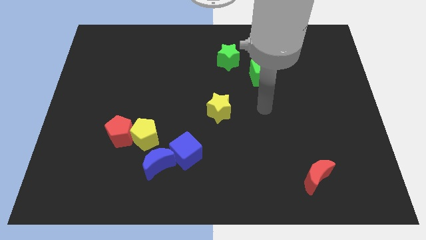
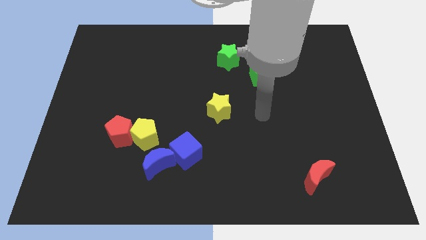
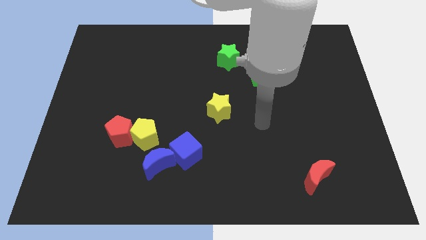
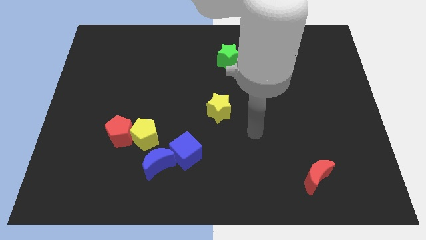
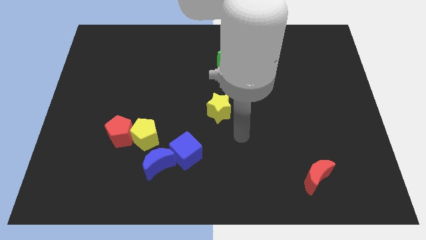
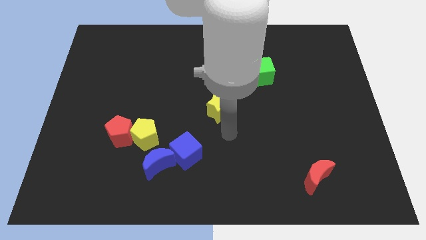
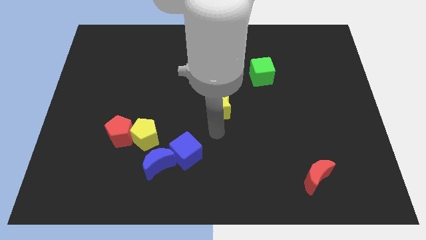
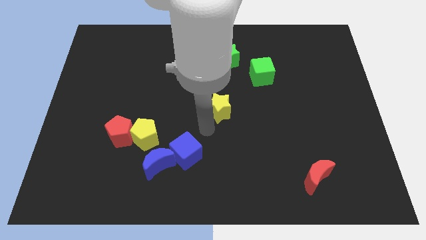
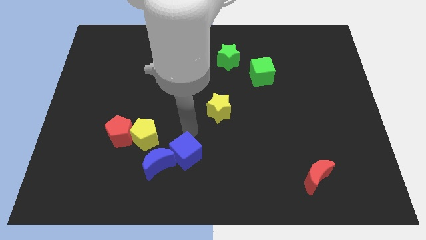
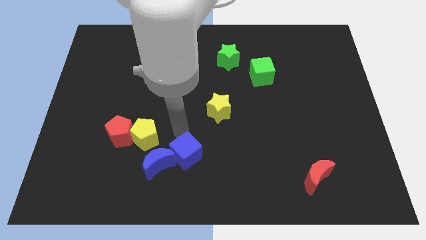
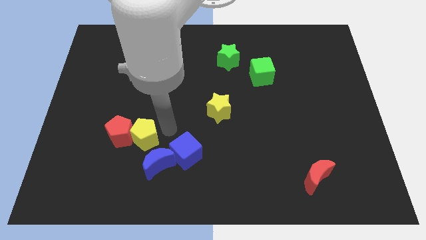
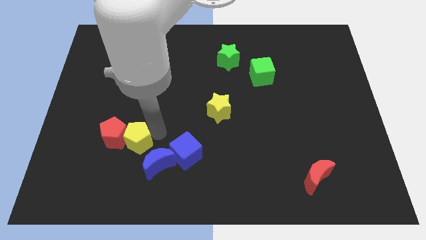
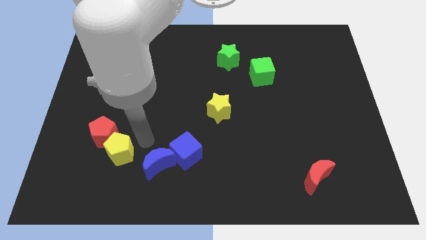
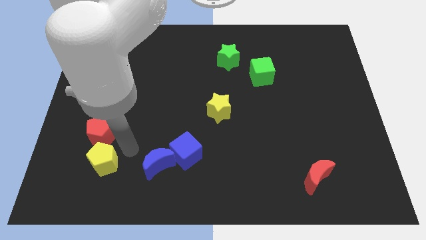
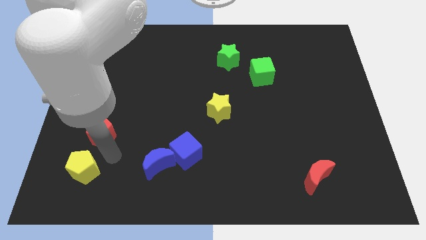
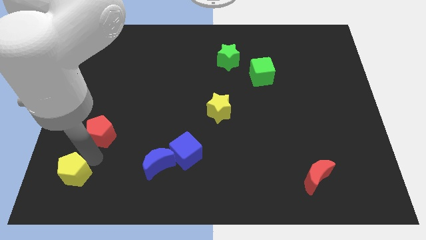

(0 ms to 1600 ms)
move the red pentagon away from the yellow pentagon

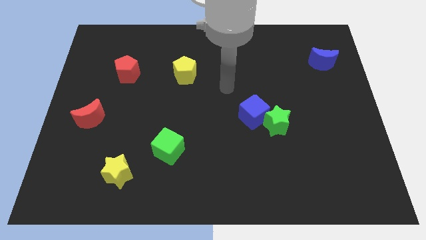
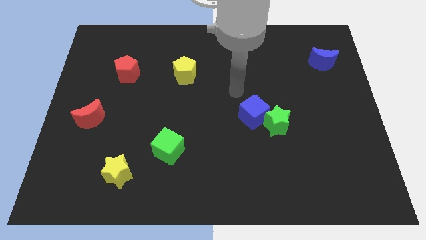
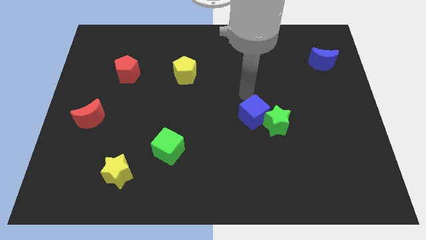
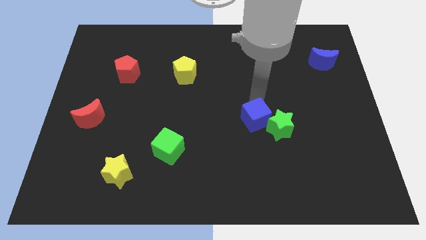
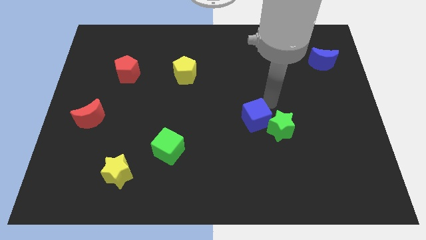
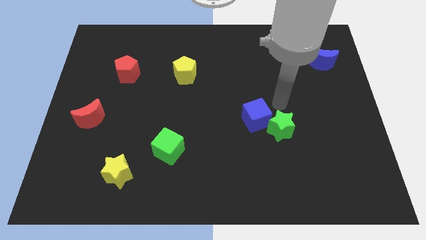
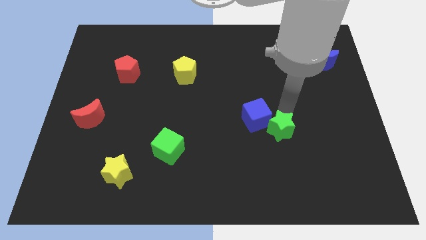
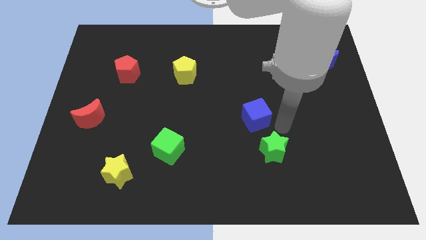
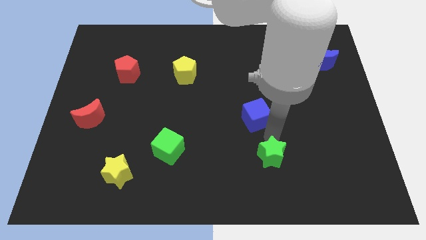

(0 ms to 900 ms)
pull the blue cube apart from the green star

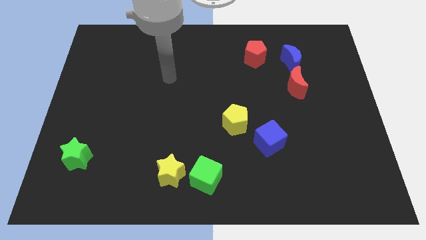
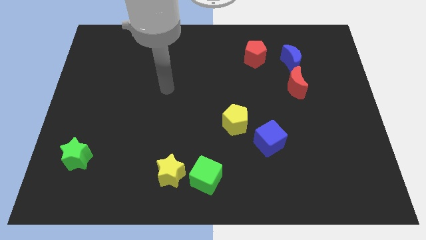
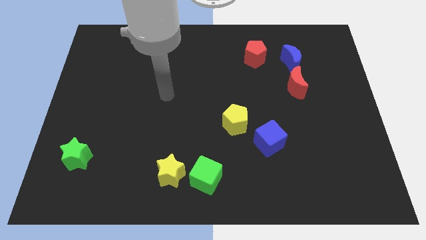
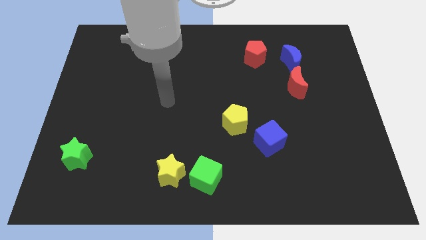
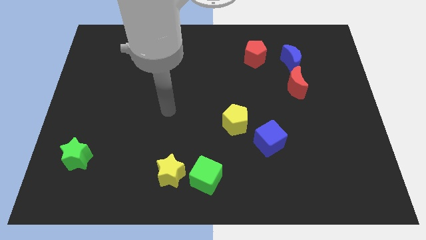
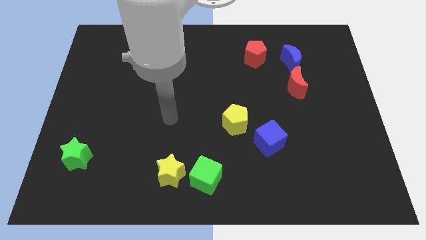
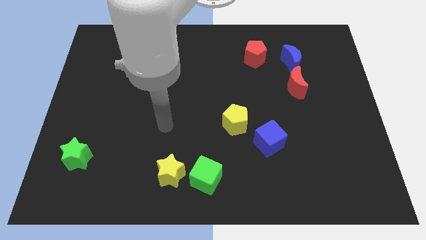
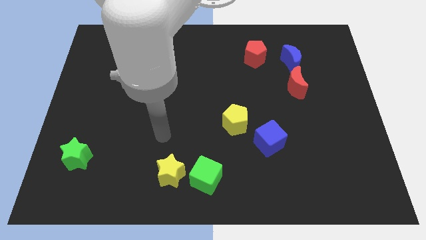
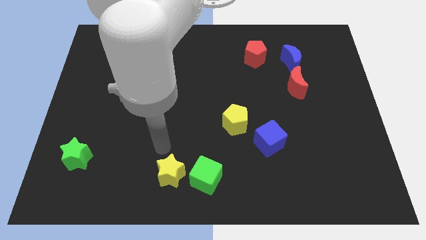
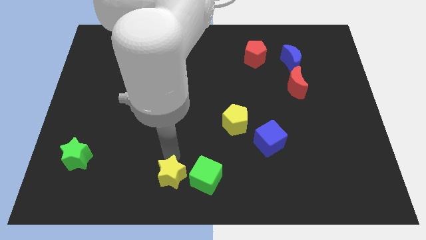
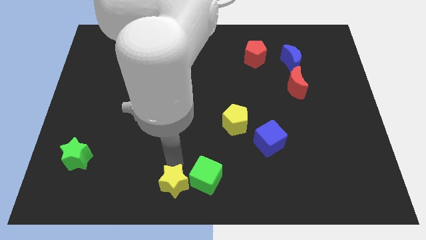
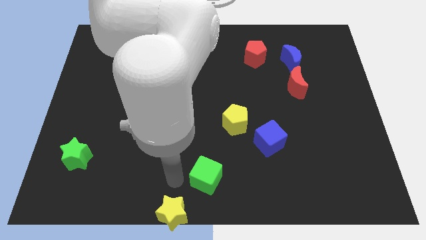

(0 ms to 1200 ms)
move the green cube away from the yellow star

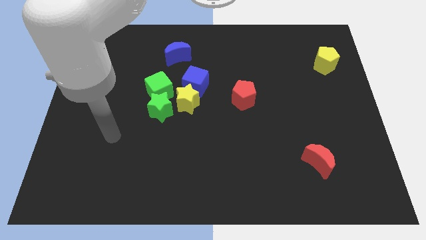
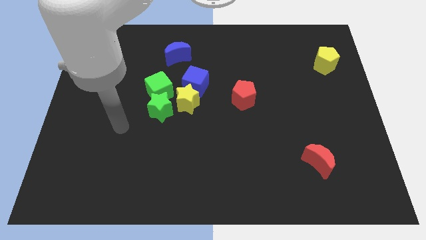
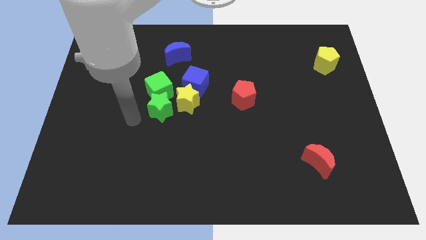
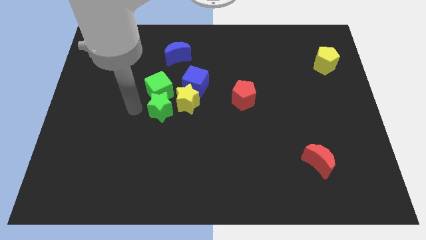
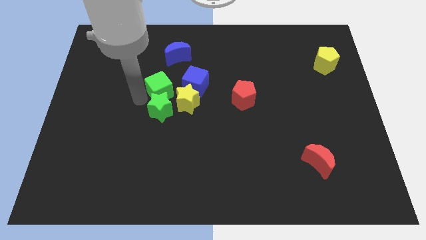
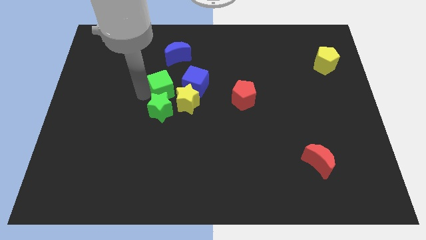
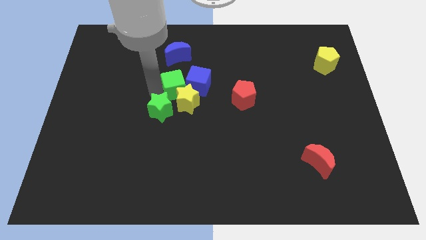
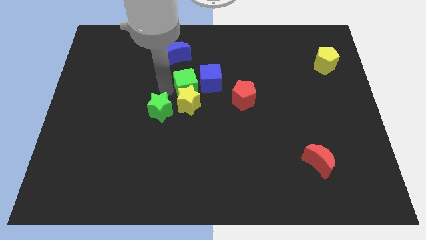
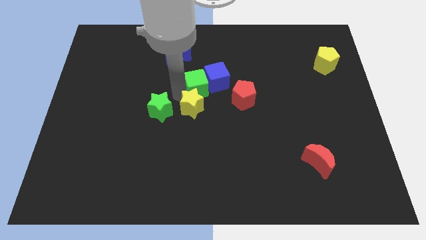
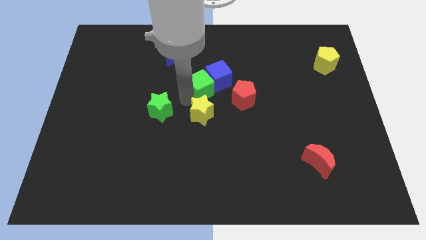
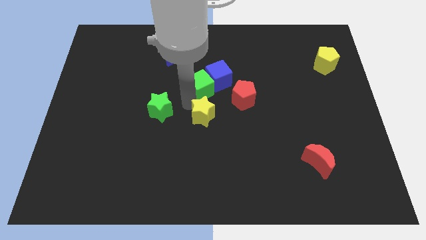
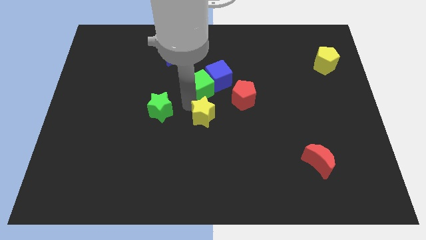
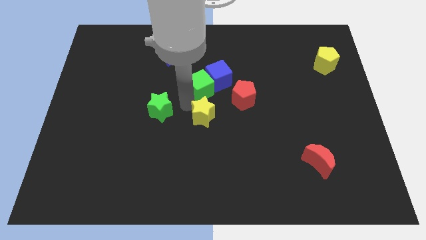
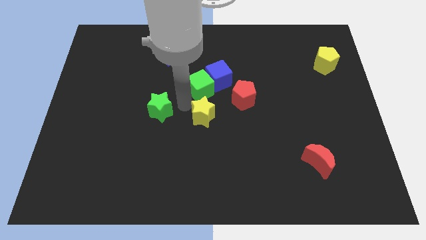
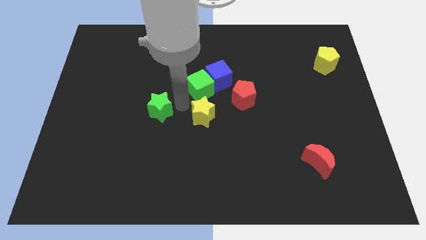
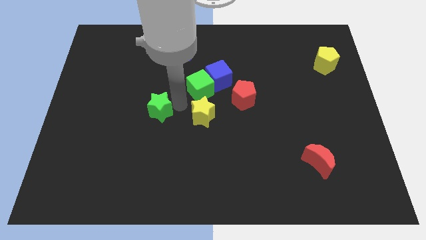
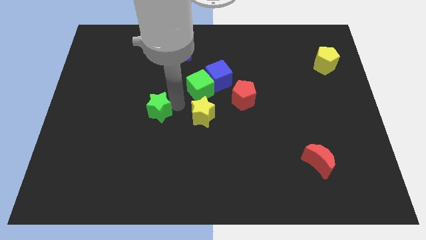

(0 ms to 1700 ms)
pull the green star apart from the green cube and yellow star

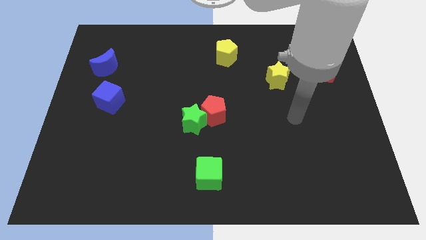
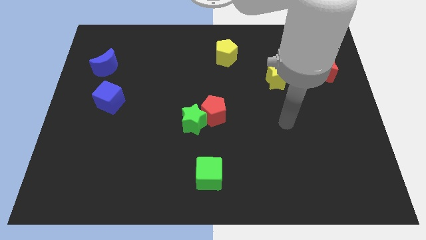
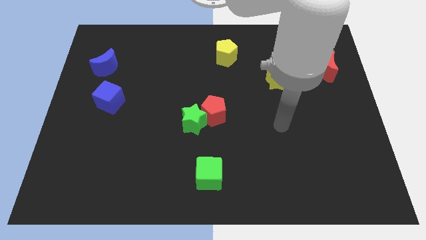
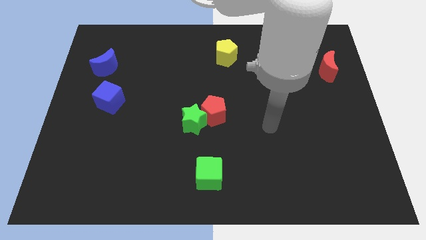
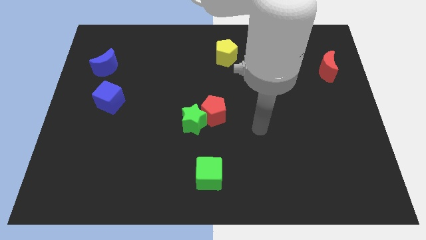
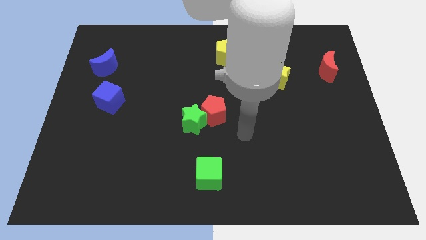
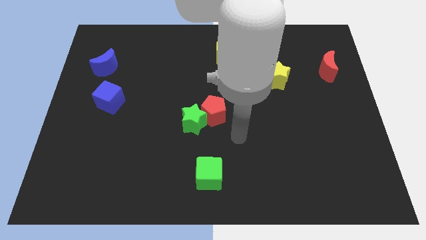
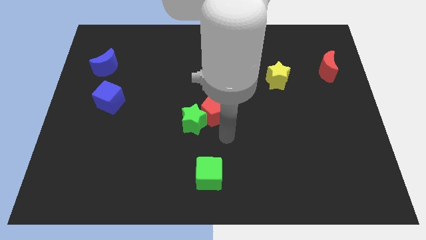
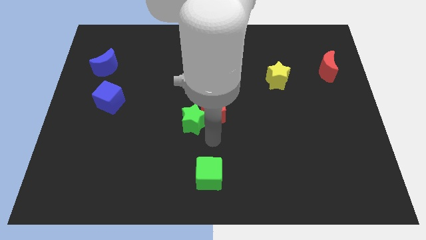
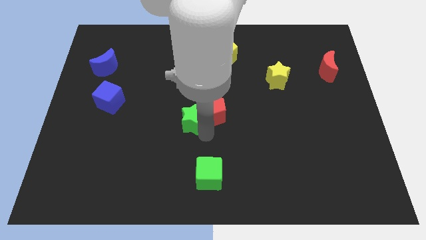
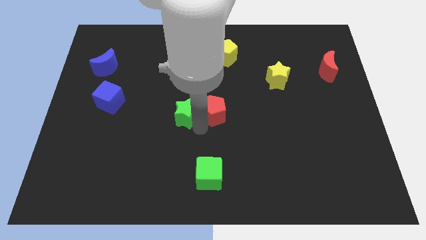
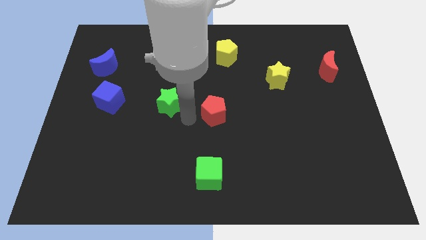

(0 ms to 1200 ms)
move the red pentagon away from the green star

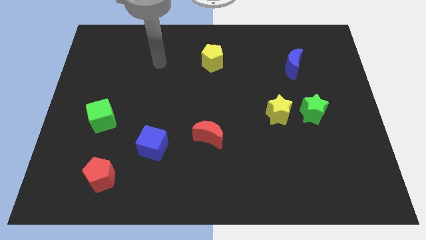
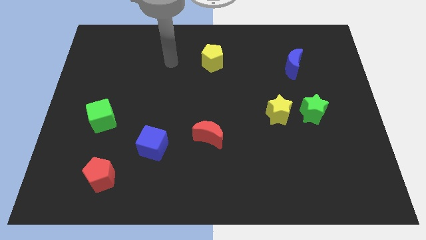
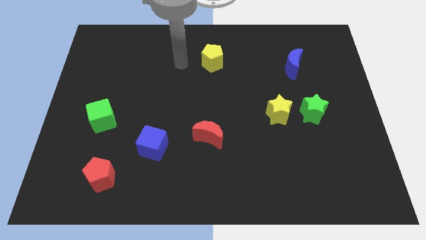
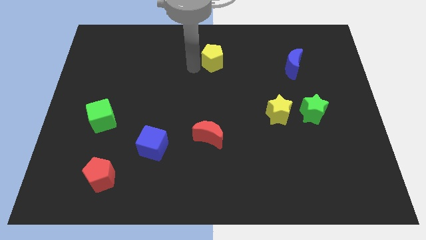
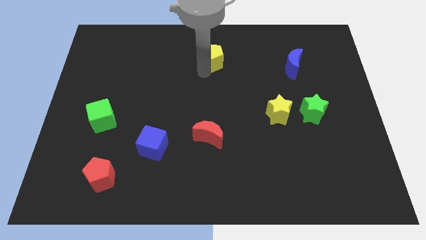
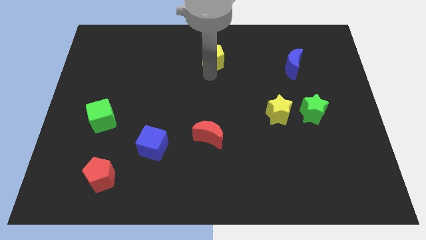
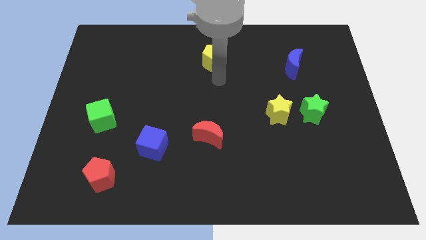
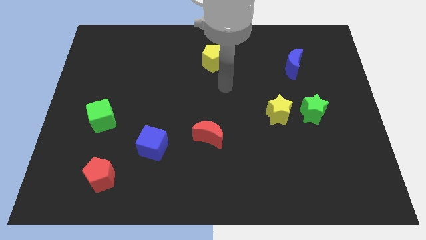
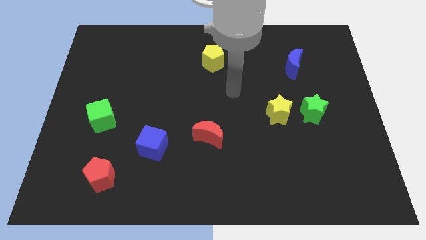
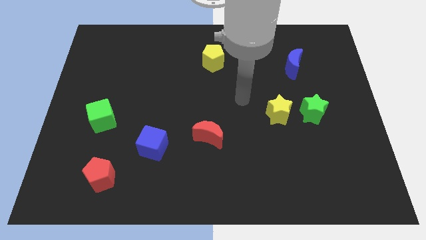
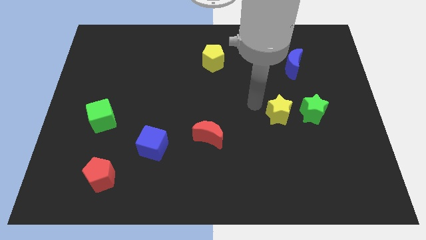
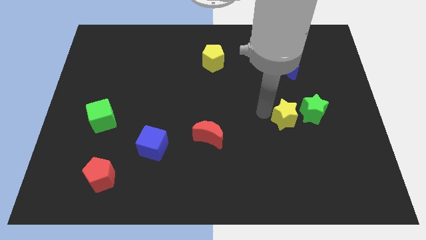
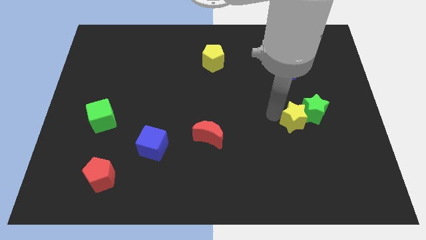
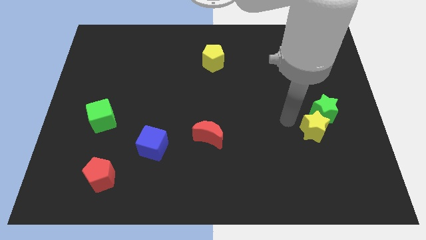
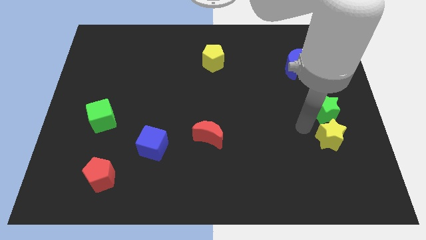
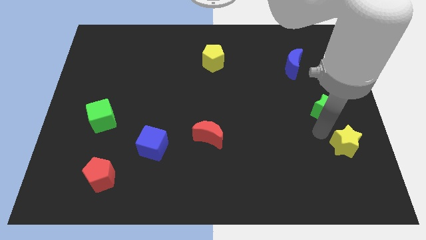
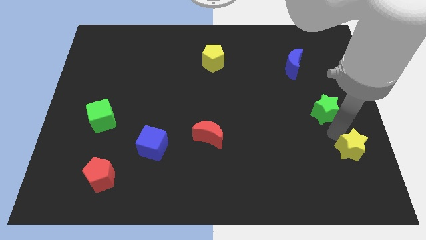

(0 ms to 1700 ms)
move the green star away from the yellow star

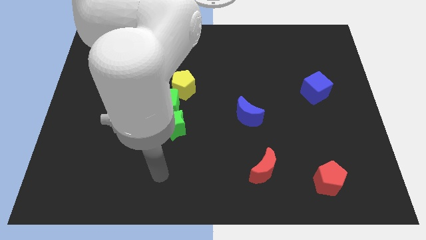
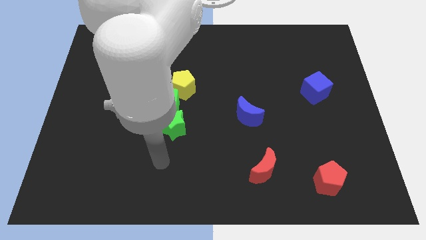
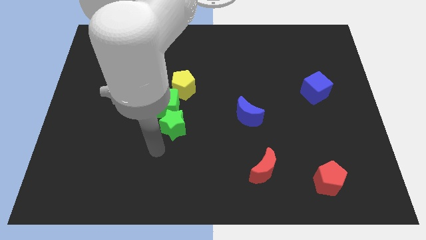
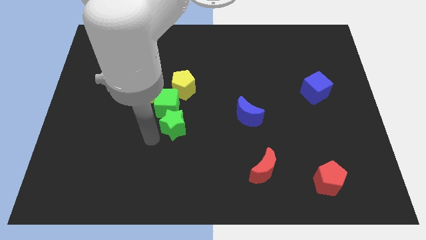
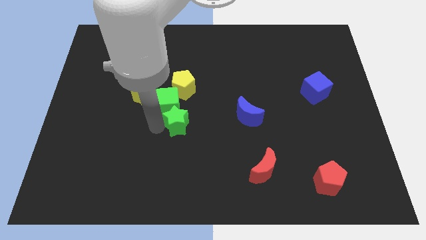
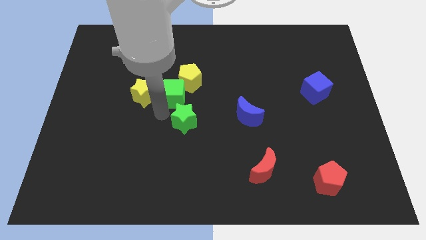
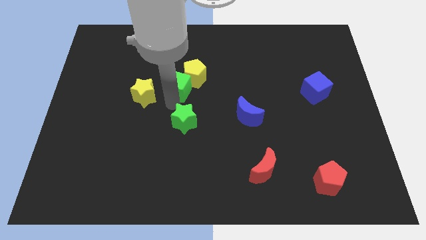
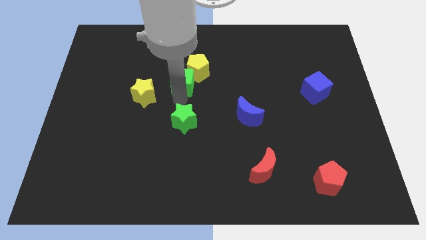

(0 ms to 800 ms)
pull the green star apart from the green cube
